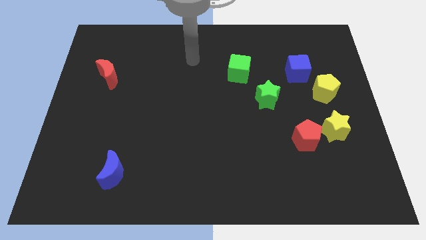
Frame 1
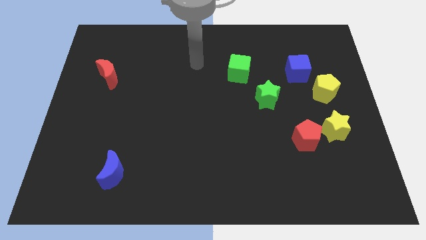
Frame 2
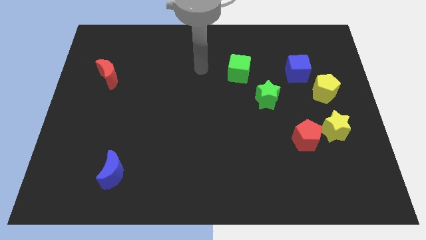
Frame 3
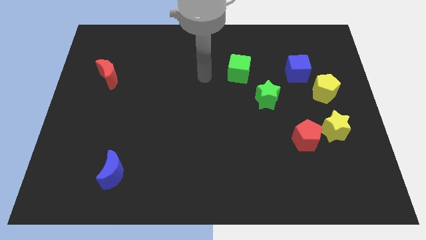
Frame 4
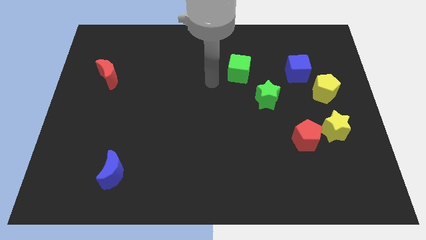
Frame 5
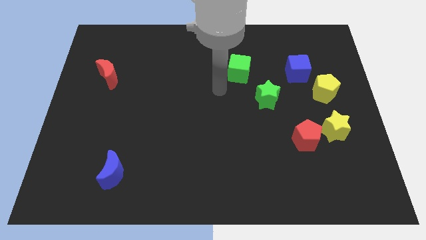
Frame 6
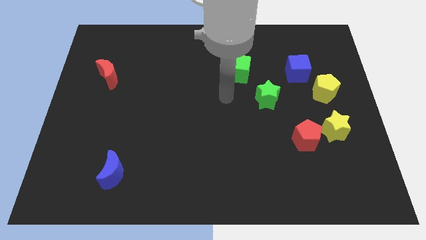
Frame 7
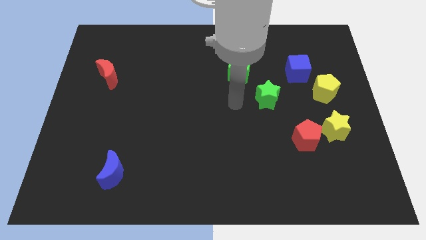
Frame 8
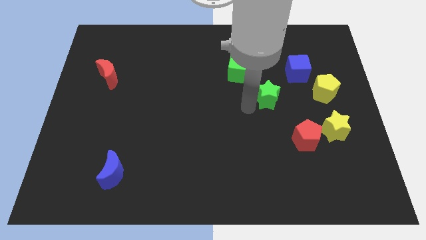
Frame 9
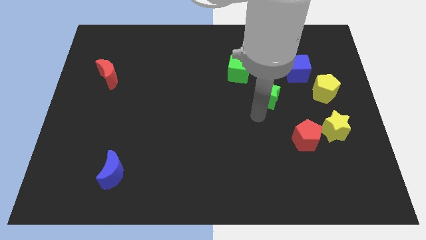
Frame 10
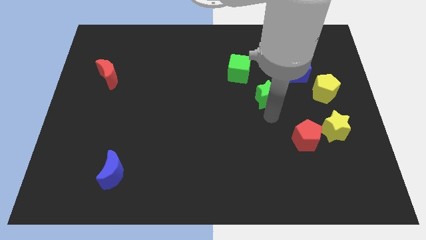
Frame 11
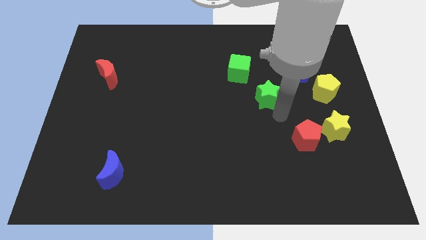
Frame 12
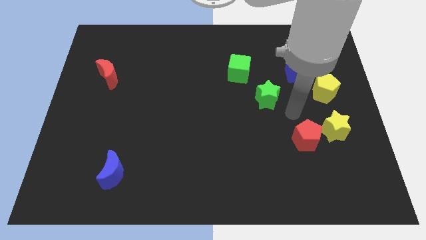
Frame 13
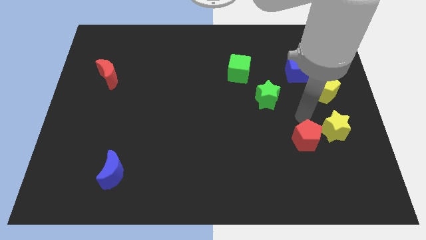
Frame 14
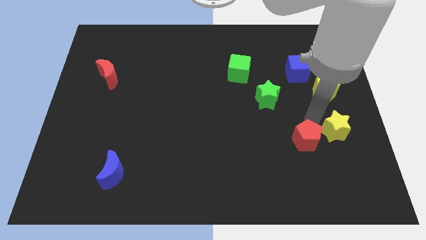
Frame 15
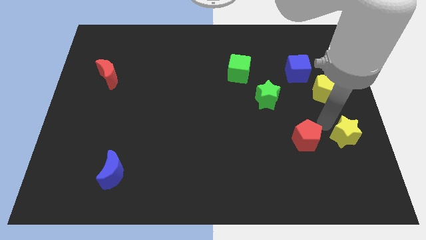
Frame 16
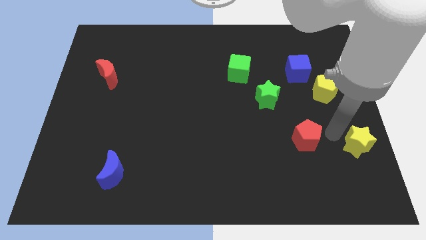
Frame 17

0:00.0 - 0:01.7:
pull the red pentagon apart from the yellow star

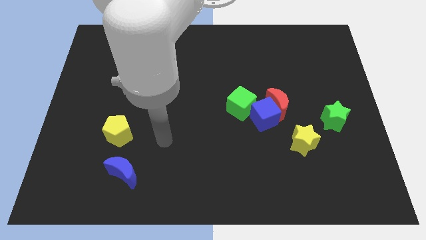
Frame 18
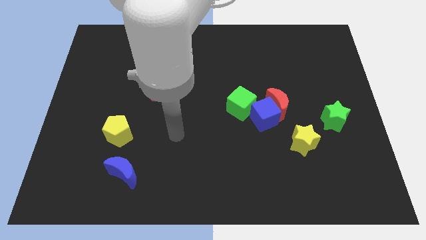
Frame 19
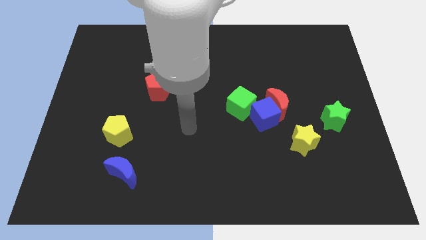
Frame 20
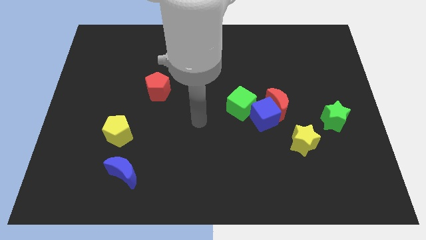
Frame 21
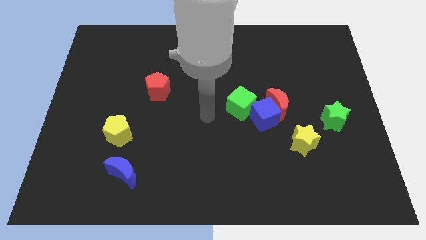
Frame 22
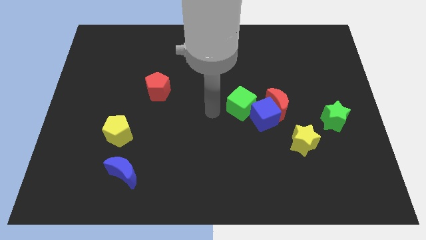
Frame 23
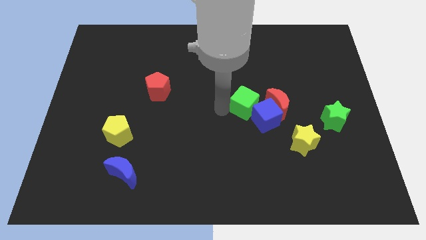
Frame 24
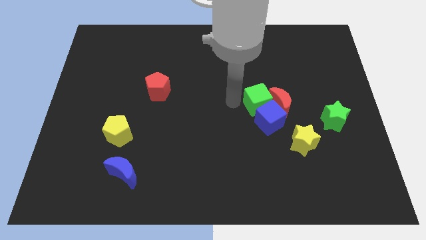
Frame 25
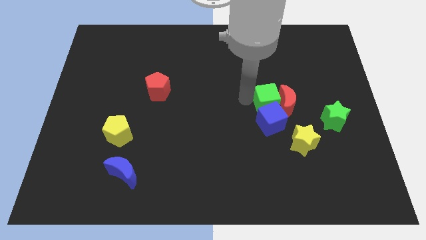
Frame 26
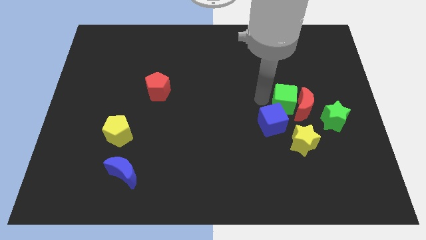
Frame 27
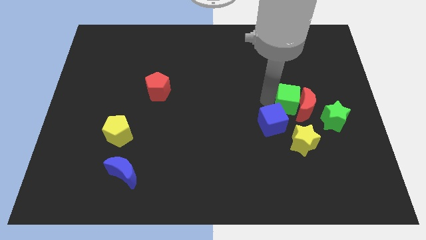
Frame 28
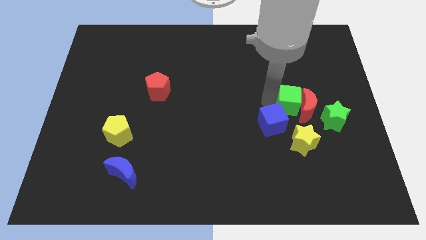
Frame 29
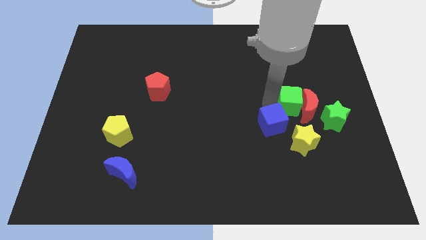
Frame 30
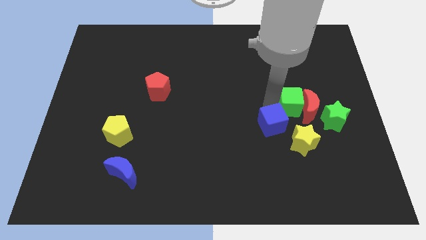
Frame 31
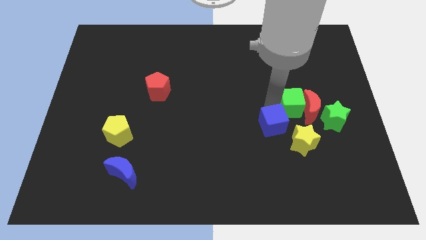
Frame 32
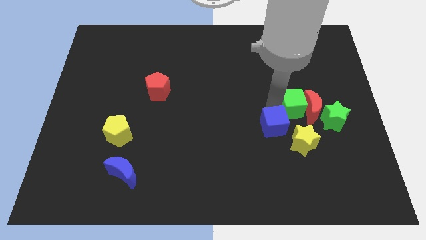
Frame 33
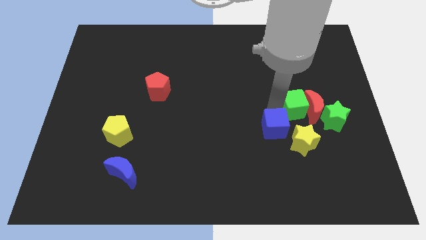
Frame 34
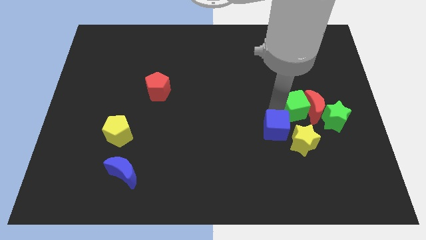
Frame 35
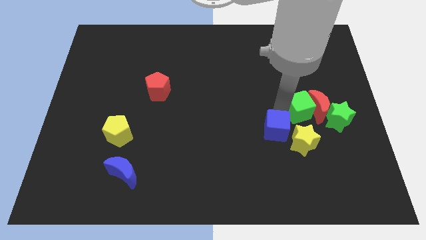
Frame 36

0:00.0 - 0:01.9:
pull the blue cube apart from the red moon and green cube

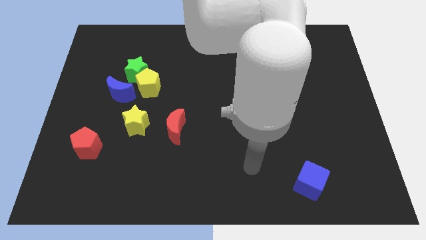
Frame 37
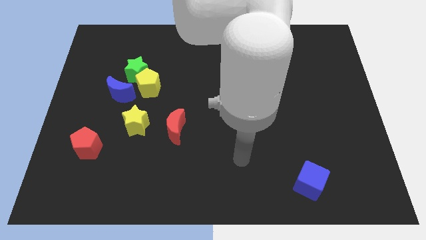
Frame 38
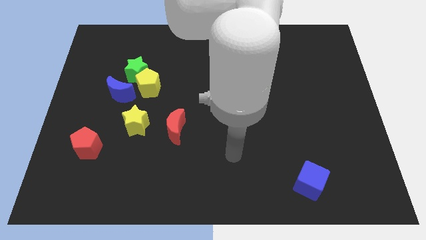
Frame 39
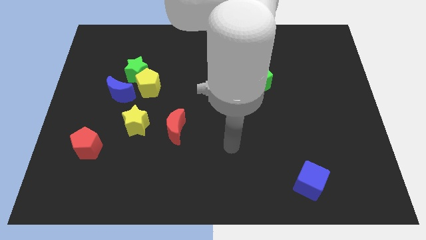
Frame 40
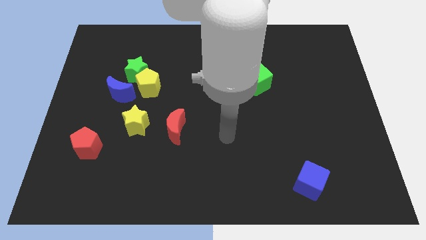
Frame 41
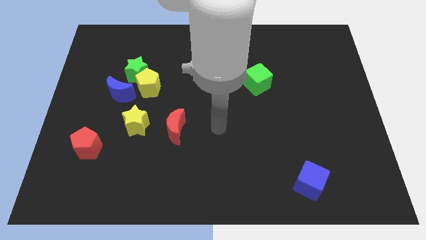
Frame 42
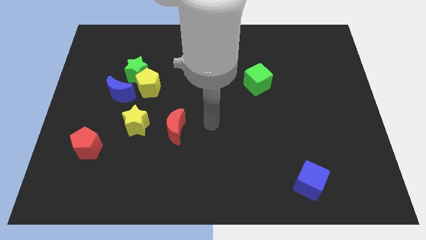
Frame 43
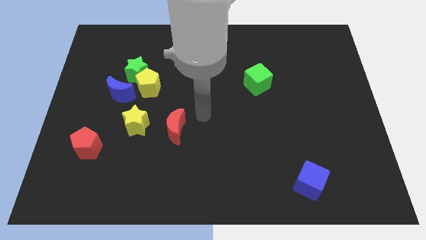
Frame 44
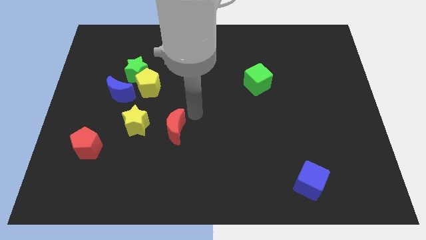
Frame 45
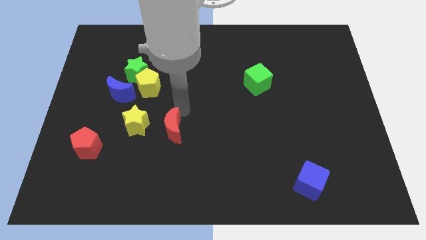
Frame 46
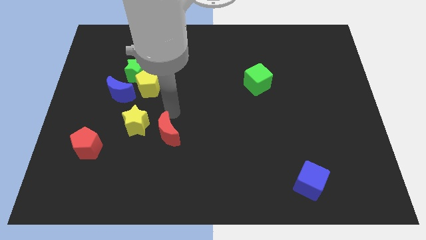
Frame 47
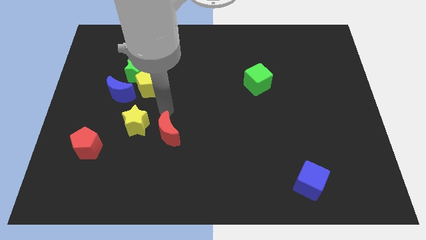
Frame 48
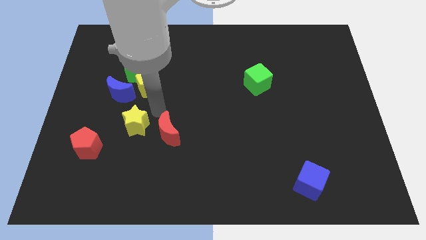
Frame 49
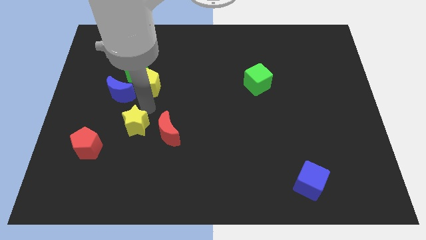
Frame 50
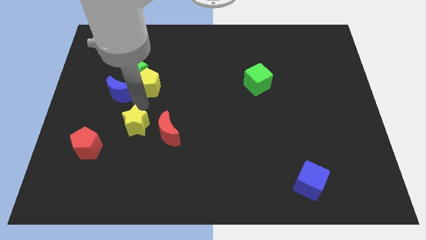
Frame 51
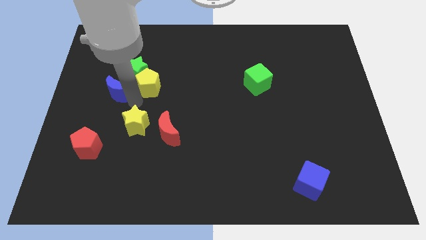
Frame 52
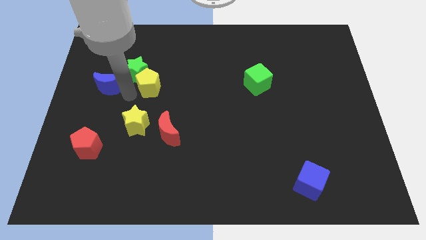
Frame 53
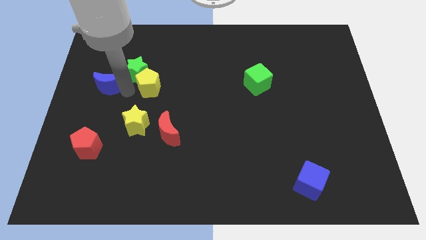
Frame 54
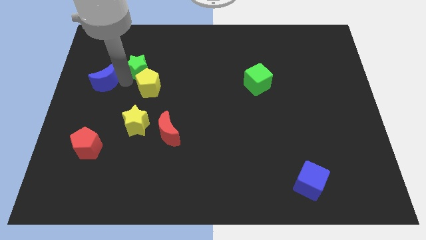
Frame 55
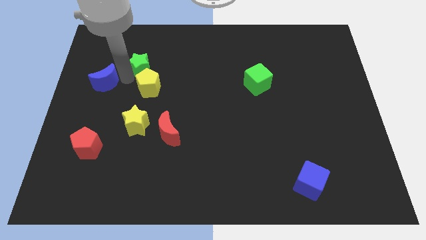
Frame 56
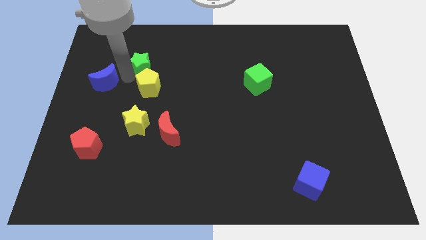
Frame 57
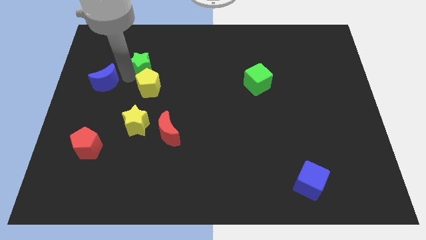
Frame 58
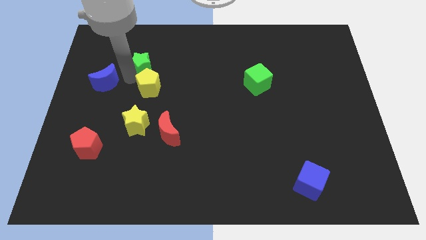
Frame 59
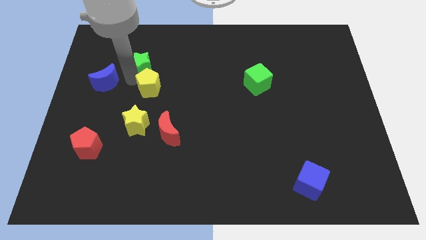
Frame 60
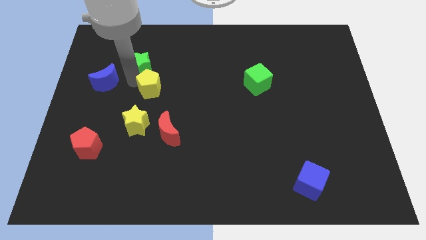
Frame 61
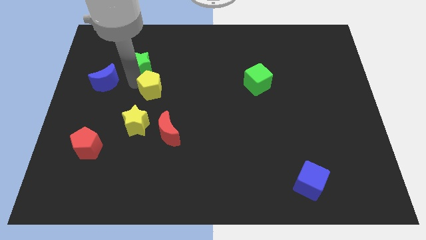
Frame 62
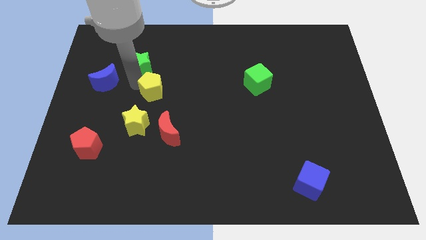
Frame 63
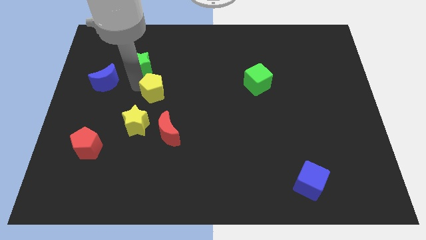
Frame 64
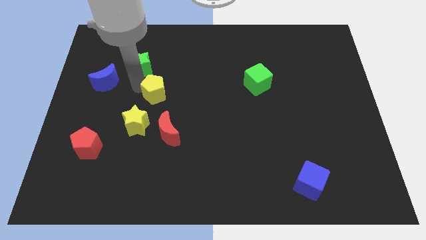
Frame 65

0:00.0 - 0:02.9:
move the yellow pentagon away from the green star and blue moon

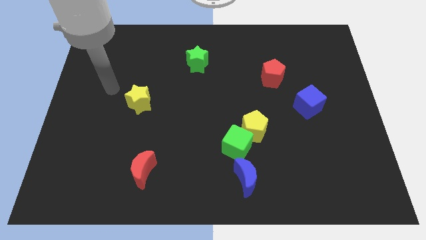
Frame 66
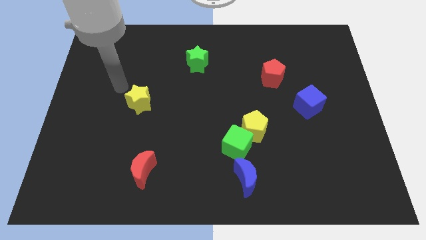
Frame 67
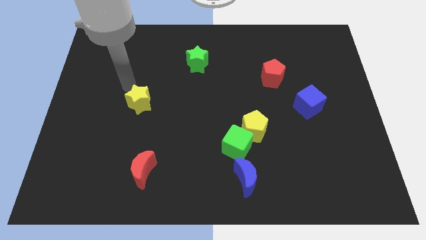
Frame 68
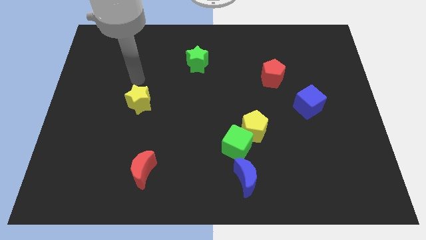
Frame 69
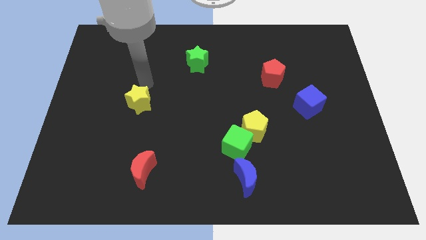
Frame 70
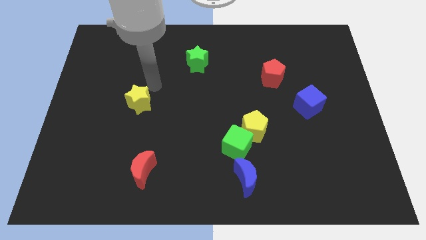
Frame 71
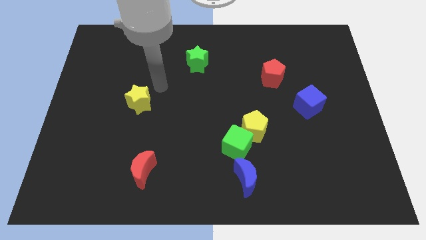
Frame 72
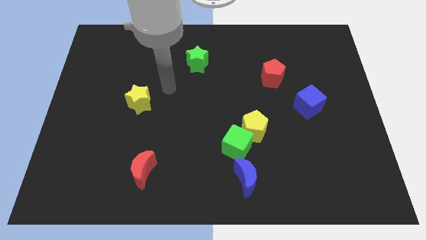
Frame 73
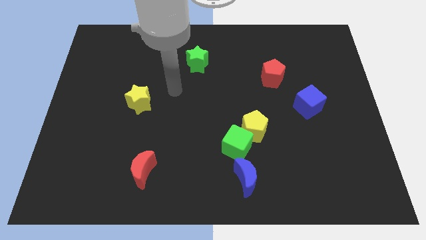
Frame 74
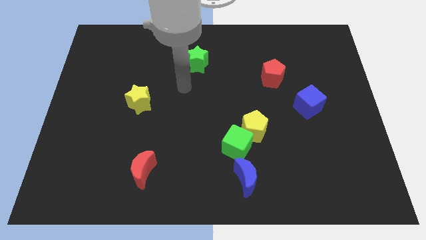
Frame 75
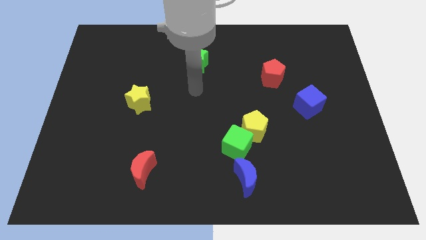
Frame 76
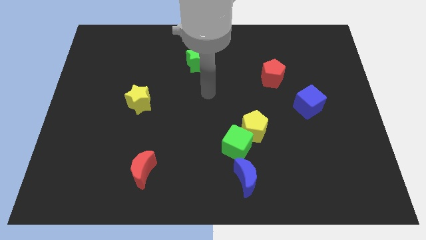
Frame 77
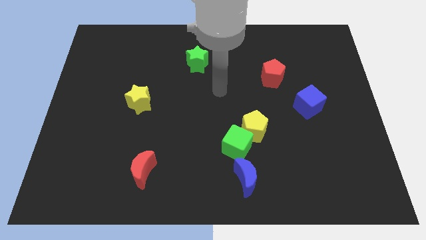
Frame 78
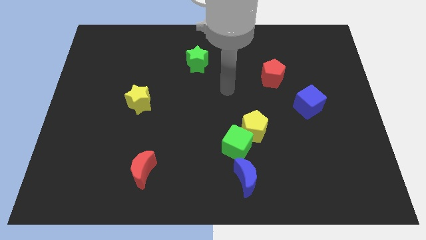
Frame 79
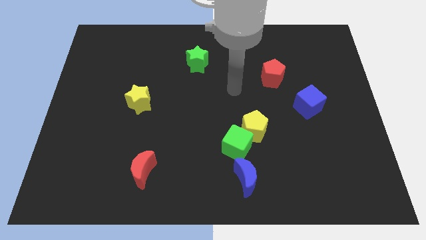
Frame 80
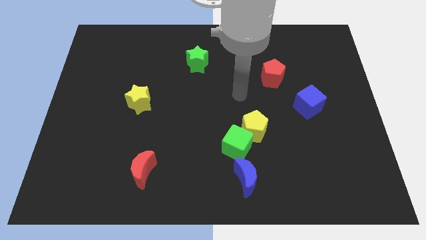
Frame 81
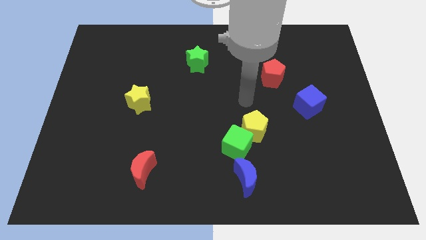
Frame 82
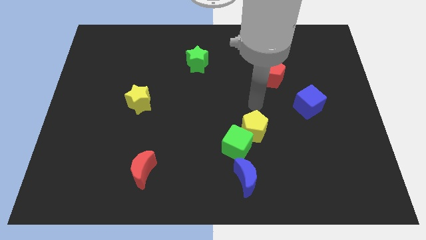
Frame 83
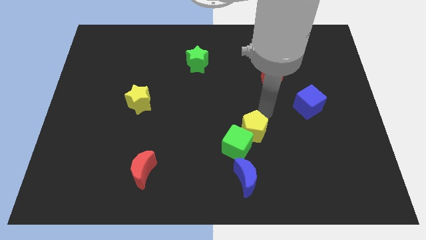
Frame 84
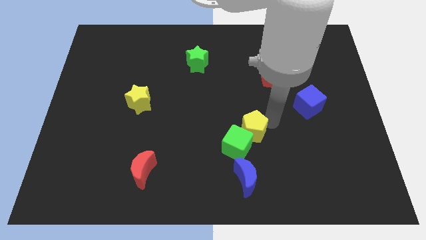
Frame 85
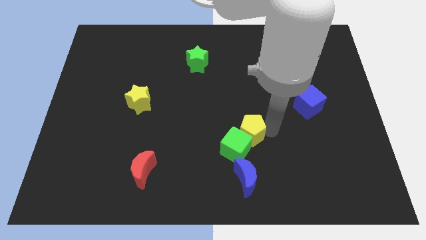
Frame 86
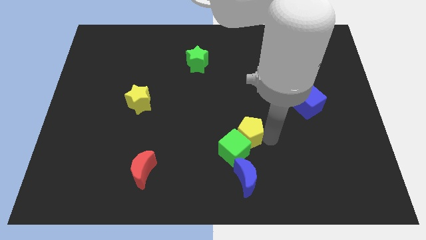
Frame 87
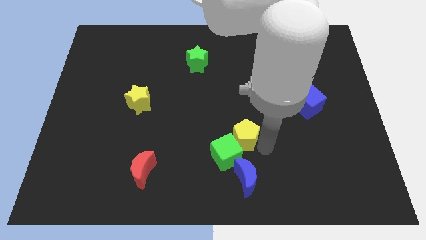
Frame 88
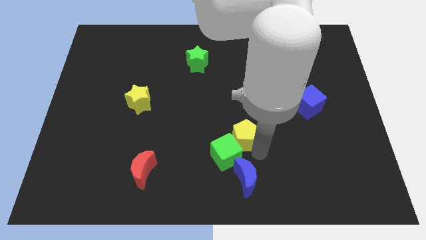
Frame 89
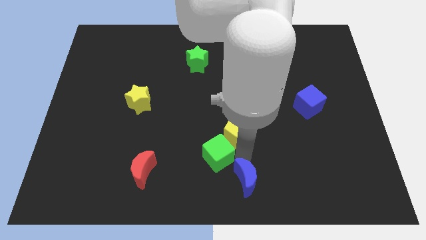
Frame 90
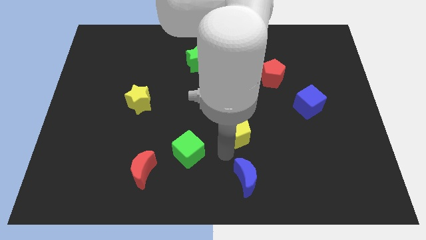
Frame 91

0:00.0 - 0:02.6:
move the yellow pentagon away from the green cube

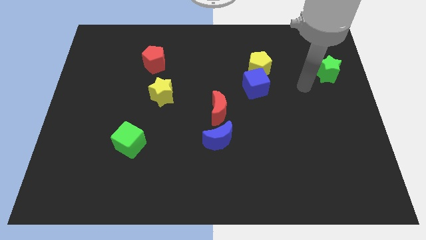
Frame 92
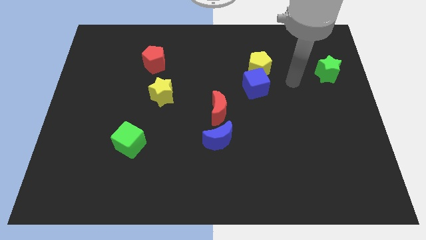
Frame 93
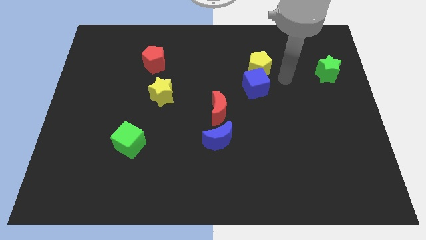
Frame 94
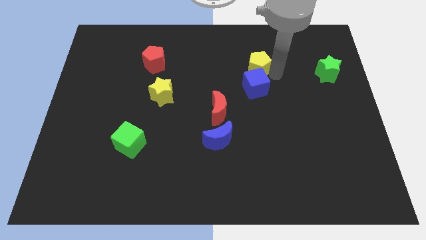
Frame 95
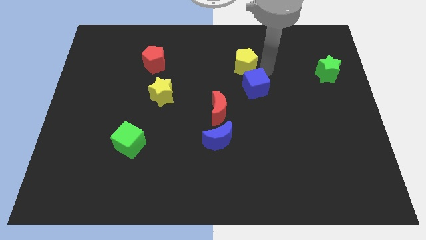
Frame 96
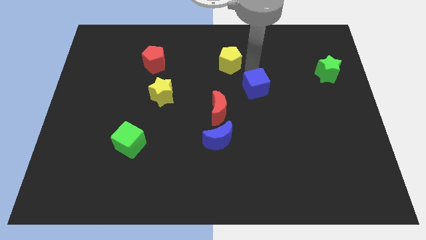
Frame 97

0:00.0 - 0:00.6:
move the blue cube away from the yellow pentagon
